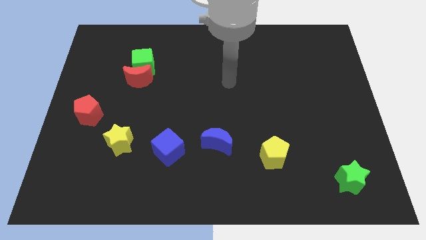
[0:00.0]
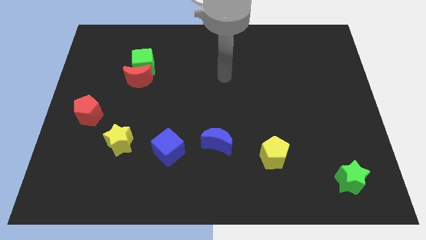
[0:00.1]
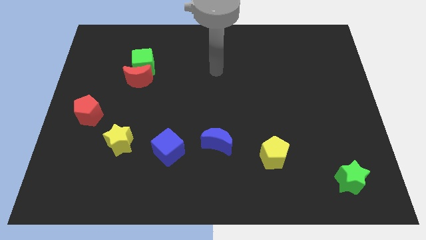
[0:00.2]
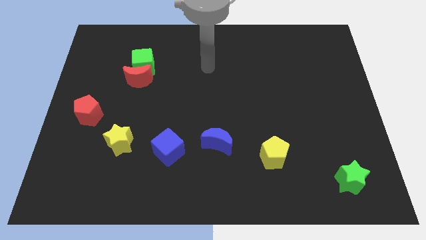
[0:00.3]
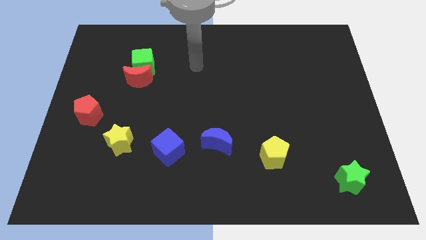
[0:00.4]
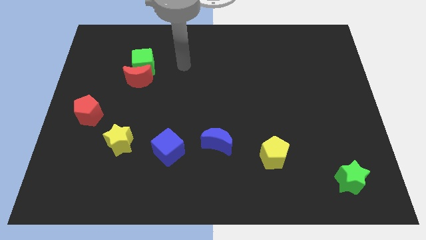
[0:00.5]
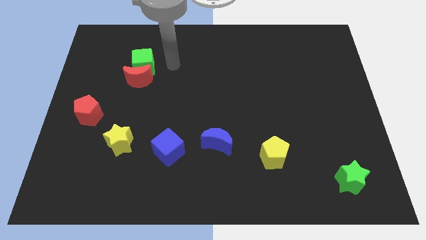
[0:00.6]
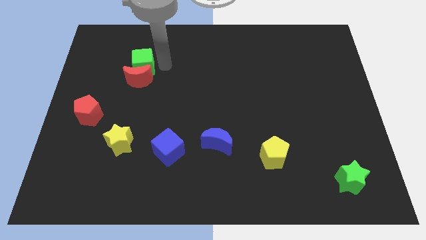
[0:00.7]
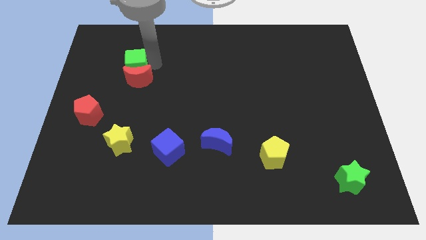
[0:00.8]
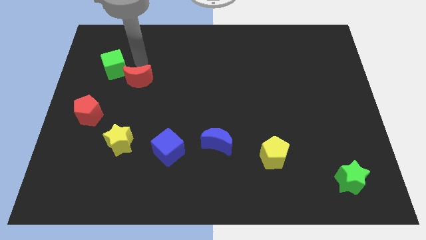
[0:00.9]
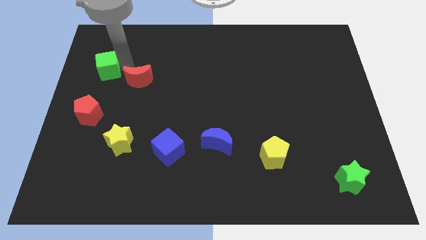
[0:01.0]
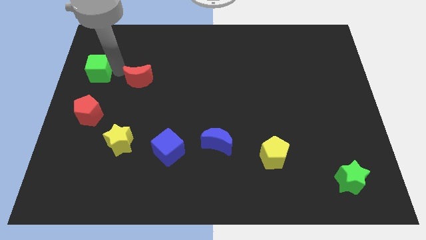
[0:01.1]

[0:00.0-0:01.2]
separate the red moon from the green cube

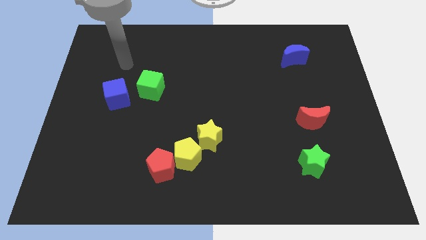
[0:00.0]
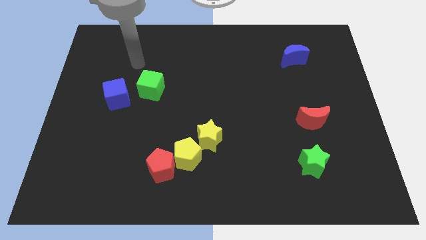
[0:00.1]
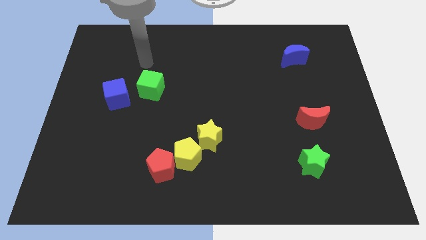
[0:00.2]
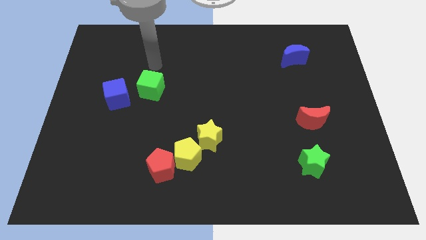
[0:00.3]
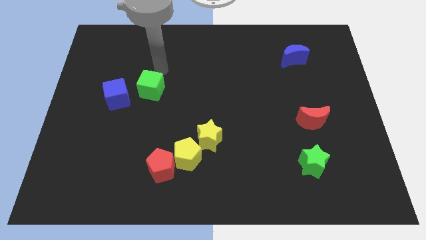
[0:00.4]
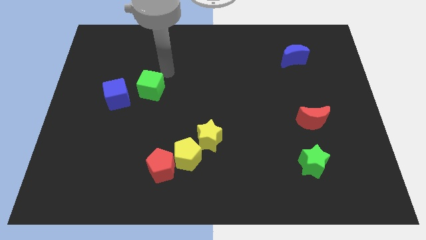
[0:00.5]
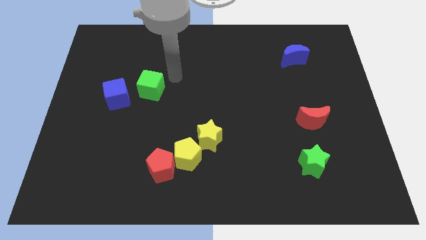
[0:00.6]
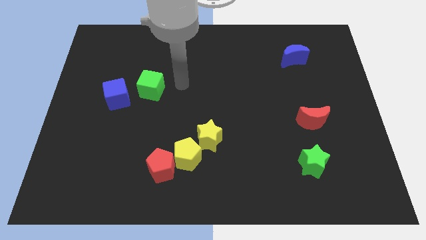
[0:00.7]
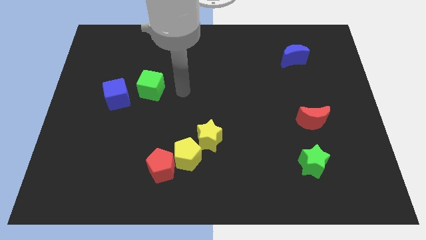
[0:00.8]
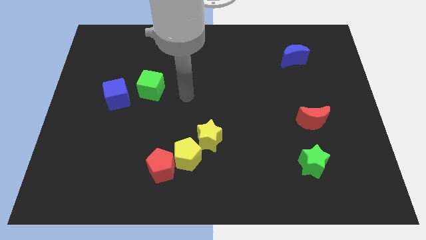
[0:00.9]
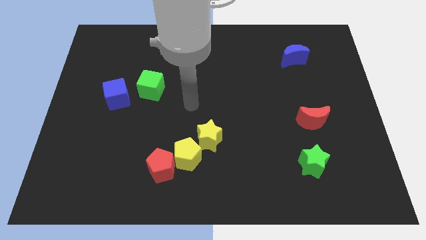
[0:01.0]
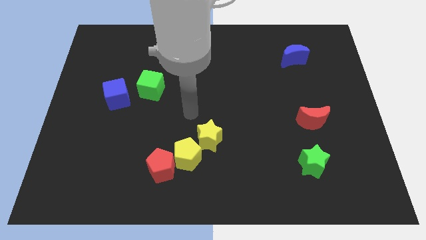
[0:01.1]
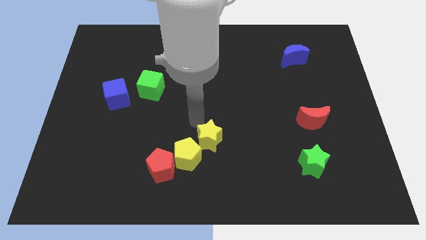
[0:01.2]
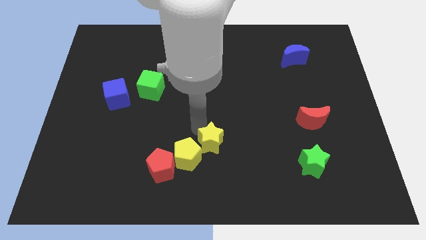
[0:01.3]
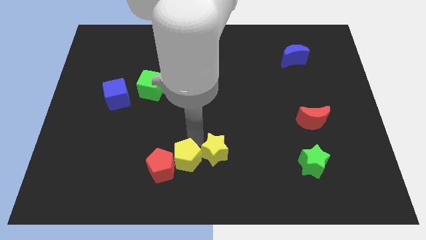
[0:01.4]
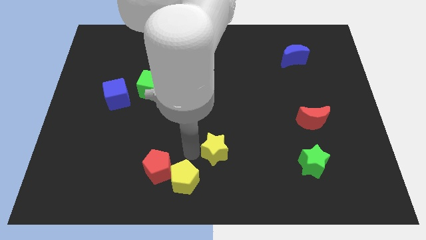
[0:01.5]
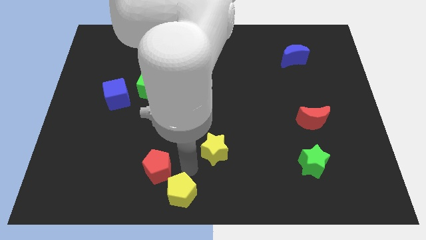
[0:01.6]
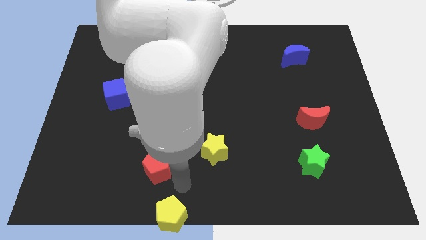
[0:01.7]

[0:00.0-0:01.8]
separate the red pentagon from the yellow pentagon

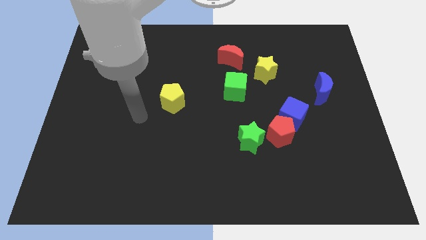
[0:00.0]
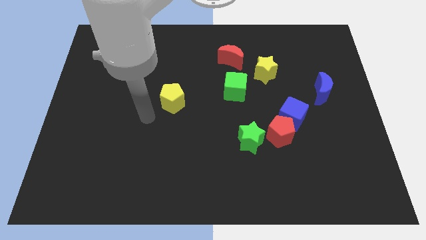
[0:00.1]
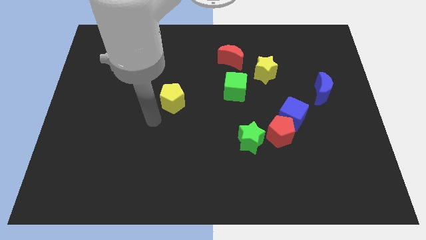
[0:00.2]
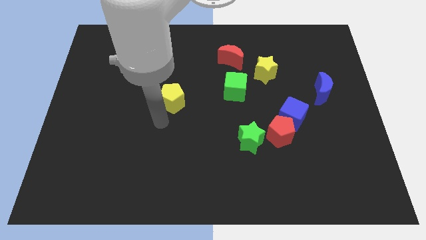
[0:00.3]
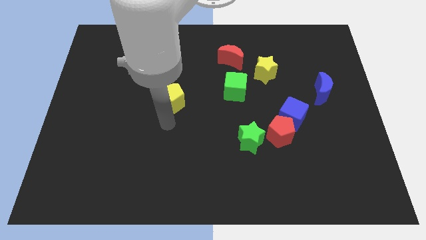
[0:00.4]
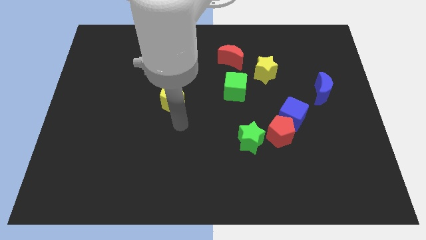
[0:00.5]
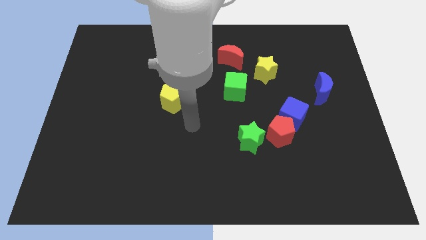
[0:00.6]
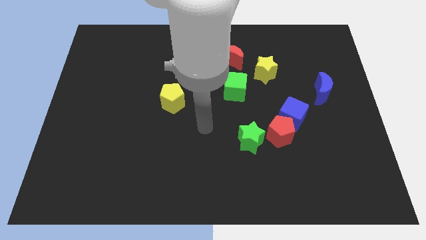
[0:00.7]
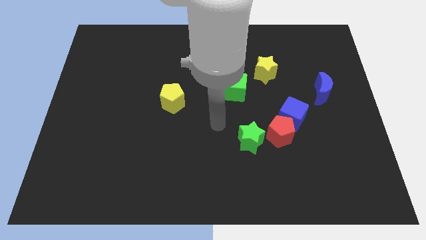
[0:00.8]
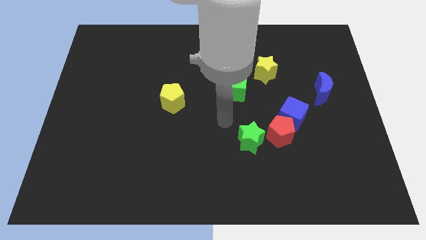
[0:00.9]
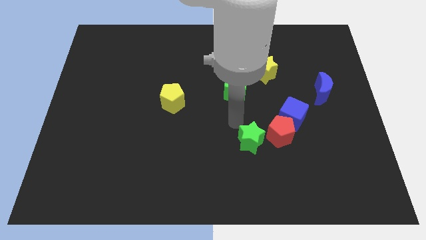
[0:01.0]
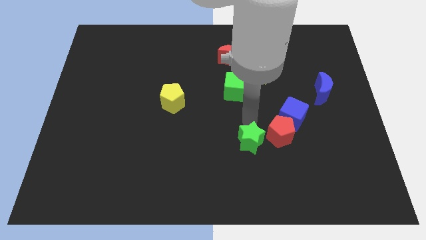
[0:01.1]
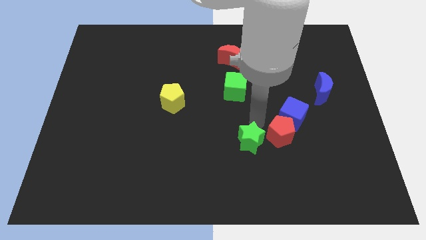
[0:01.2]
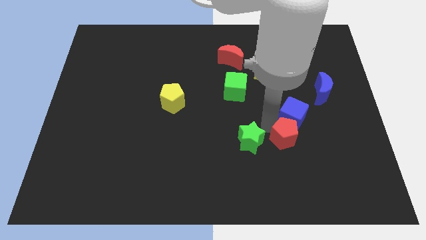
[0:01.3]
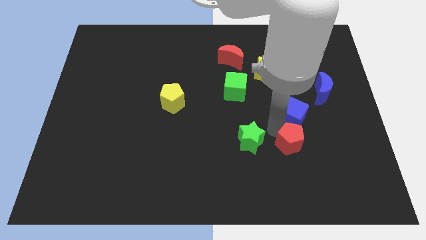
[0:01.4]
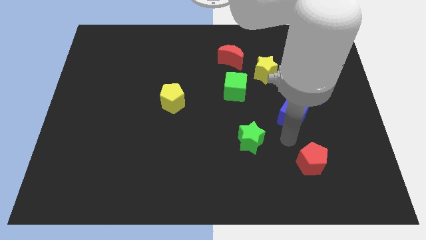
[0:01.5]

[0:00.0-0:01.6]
separate the blue cube from the red pentagon

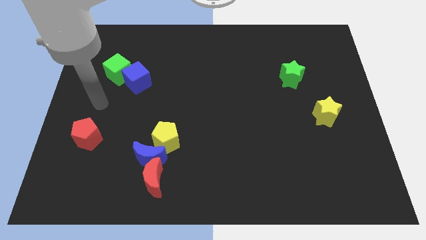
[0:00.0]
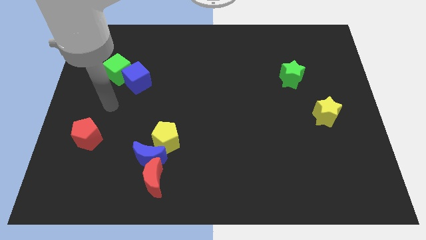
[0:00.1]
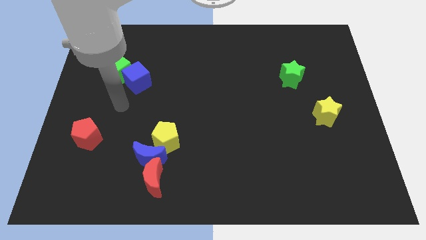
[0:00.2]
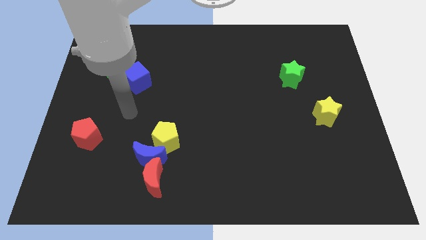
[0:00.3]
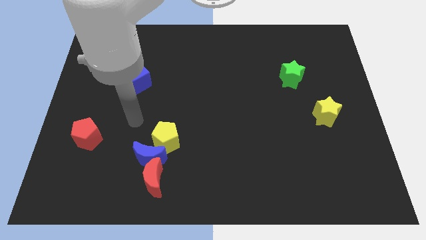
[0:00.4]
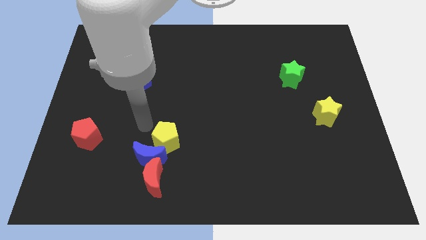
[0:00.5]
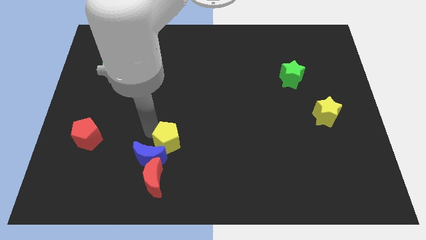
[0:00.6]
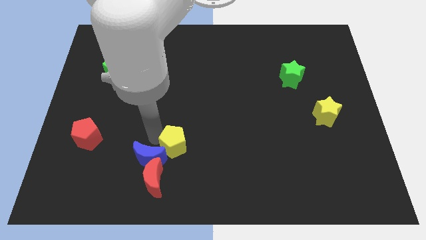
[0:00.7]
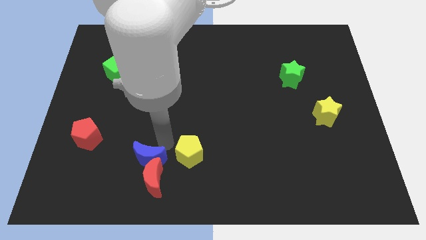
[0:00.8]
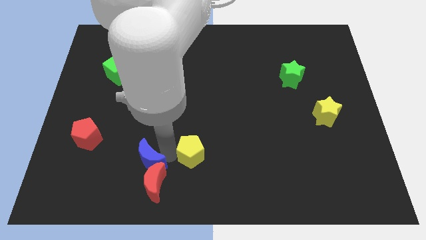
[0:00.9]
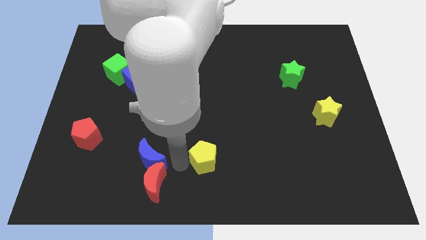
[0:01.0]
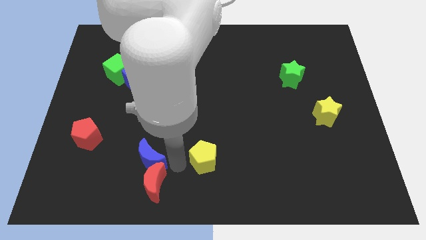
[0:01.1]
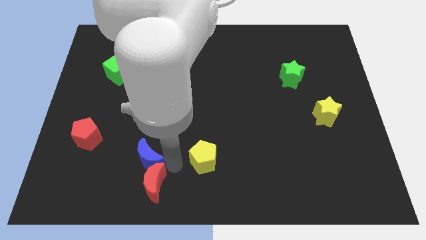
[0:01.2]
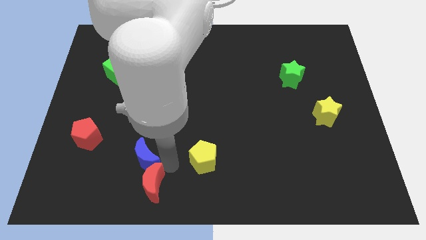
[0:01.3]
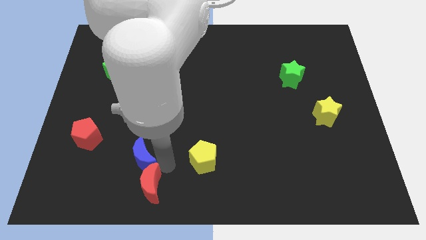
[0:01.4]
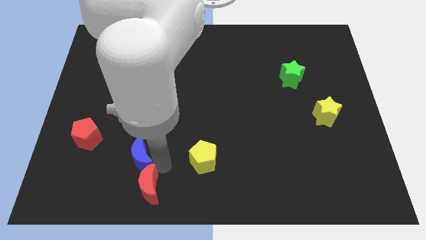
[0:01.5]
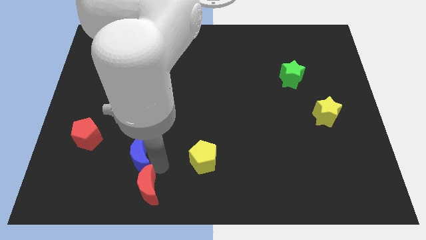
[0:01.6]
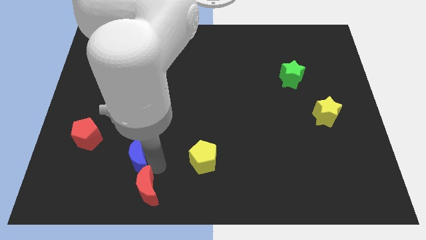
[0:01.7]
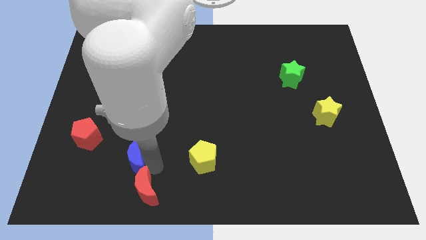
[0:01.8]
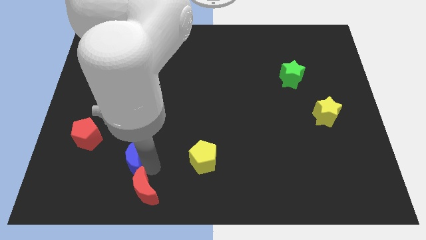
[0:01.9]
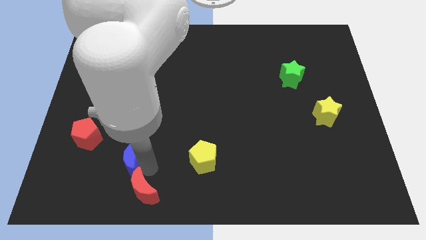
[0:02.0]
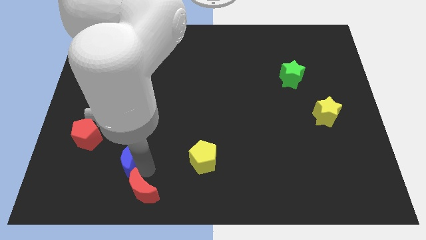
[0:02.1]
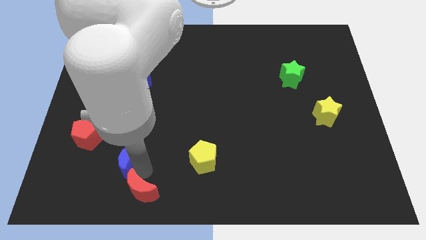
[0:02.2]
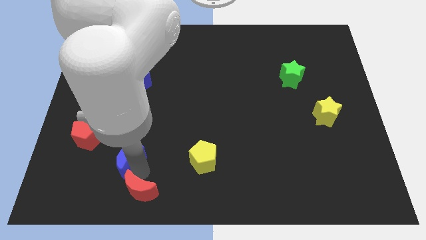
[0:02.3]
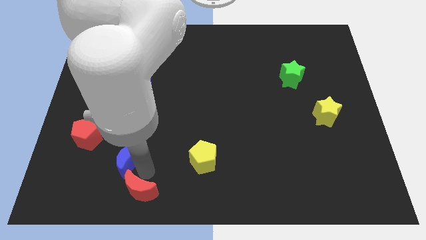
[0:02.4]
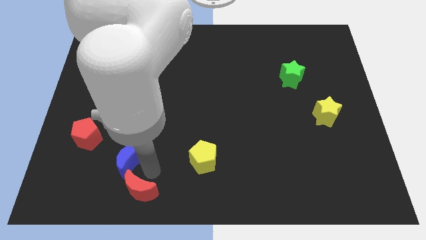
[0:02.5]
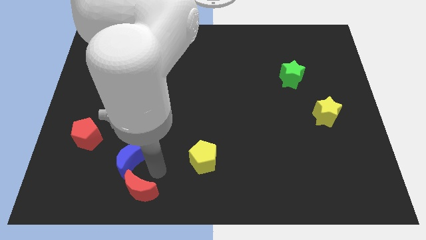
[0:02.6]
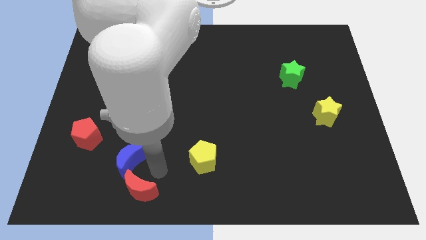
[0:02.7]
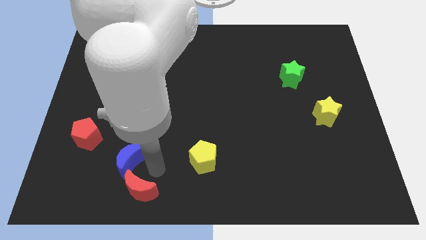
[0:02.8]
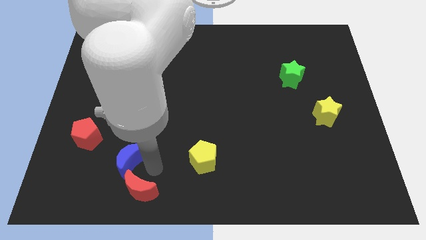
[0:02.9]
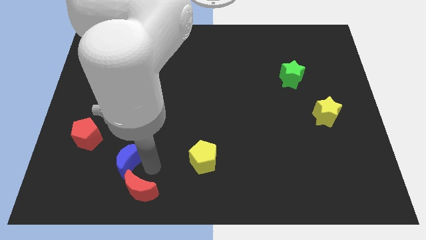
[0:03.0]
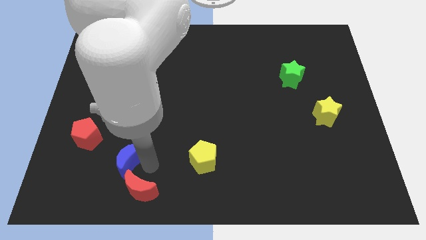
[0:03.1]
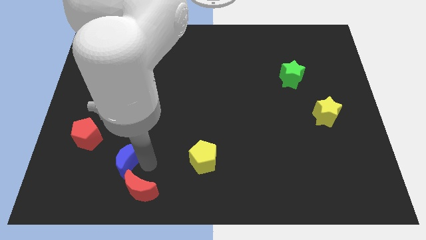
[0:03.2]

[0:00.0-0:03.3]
pull the blue moon apart from the red moon and yellow pentagon

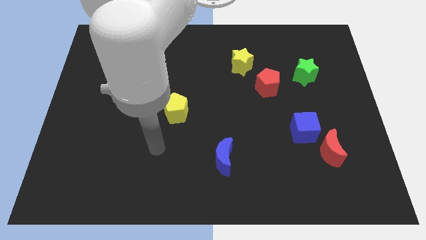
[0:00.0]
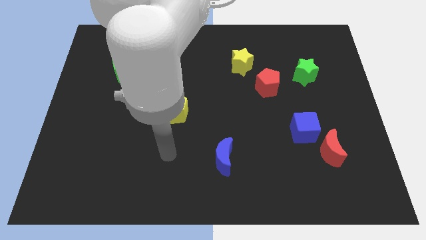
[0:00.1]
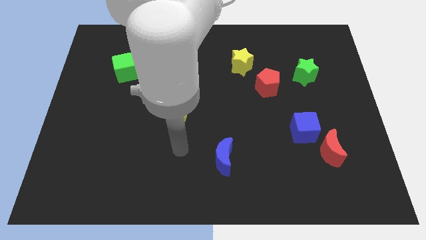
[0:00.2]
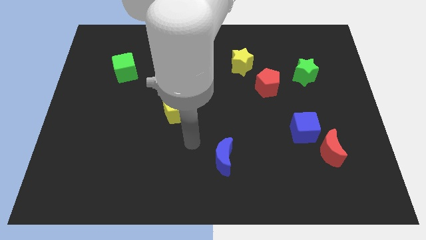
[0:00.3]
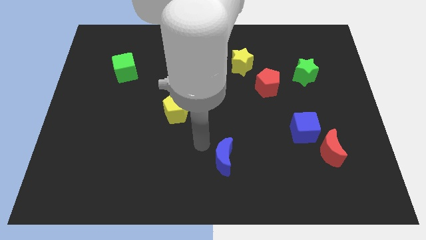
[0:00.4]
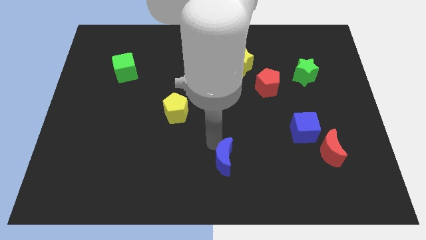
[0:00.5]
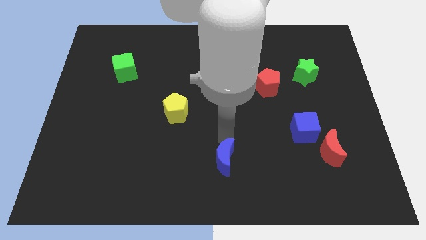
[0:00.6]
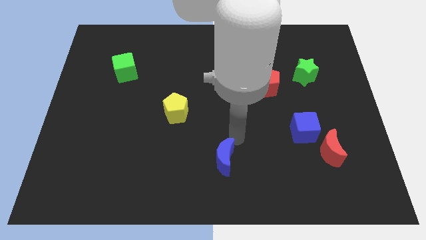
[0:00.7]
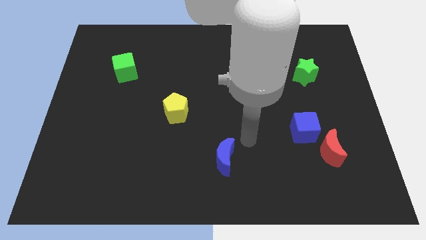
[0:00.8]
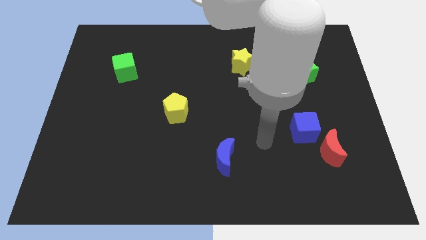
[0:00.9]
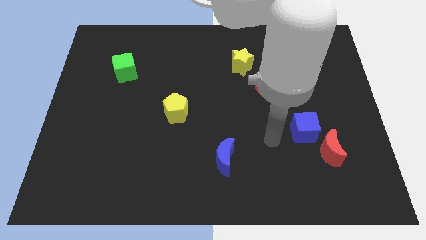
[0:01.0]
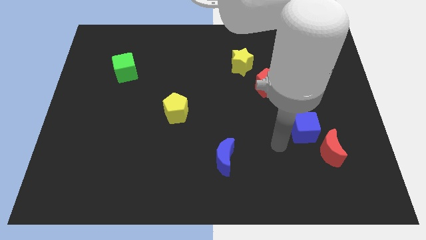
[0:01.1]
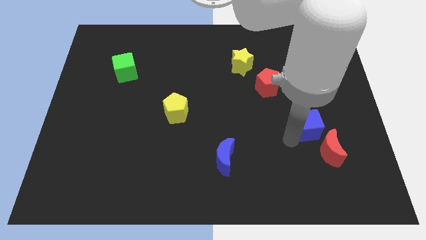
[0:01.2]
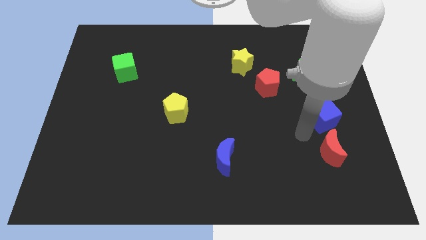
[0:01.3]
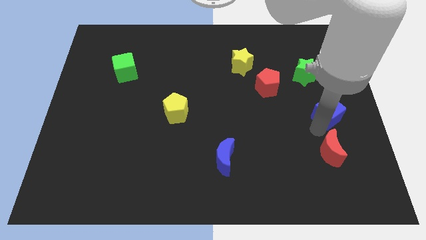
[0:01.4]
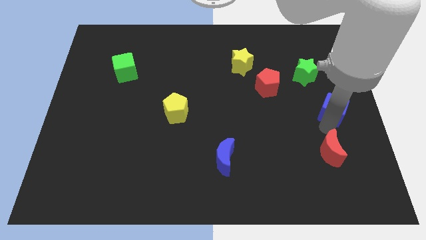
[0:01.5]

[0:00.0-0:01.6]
move the red moon away from the blue cube
